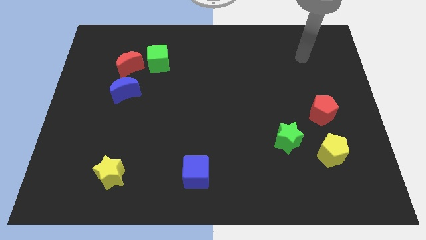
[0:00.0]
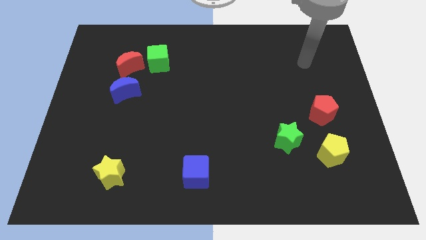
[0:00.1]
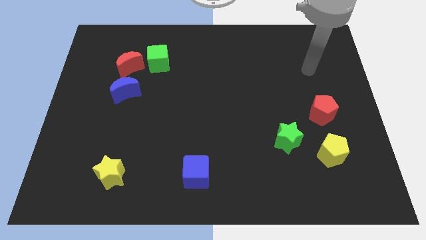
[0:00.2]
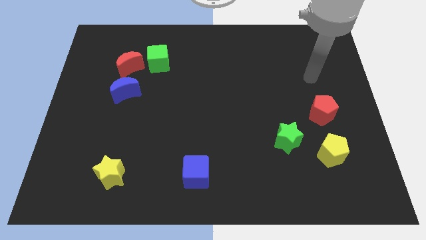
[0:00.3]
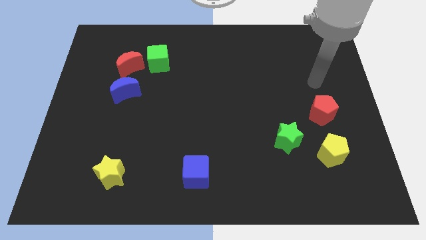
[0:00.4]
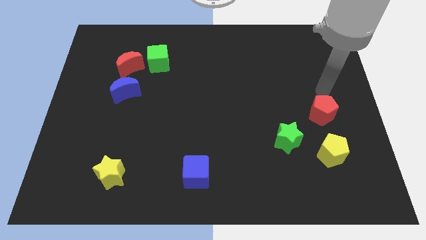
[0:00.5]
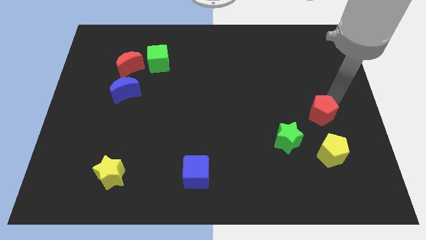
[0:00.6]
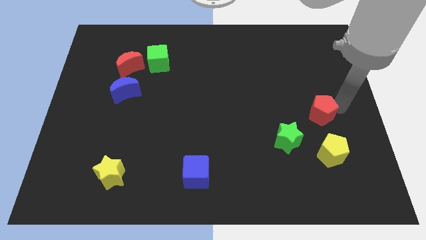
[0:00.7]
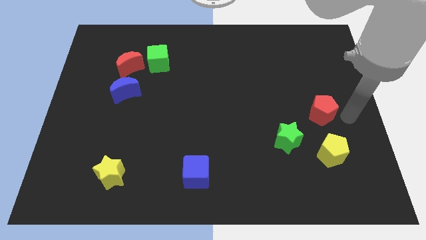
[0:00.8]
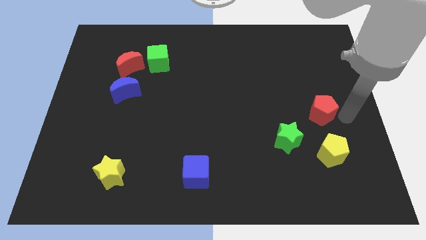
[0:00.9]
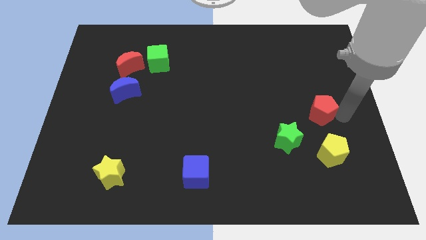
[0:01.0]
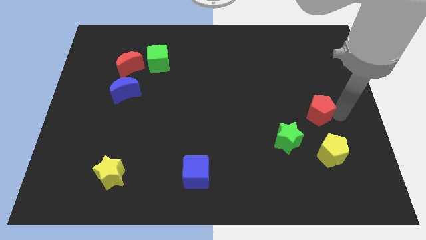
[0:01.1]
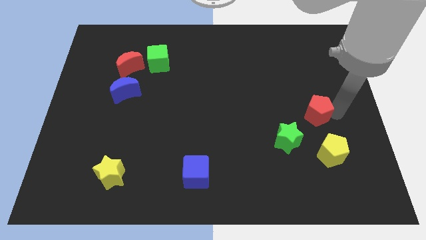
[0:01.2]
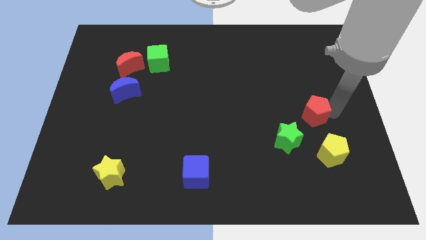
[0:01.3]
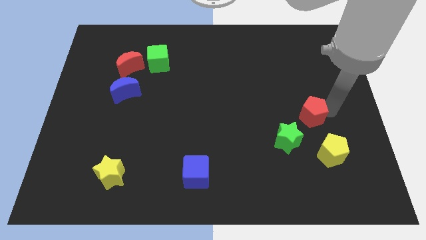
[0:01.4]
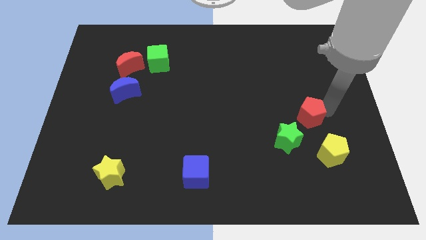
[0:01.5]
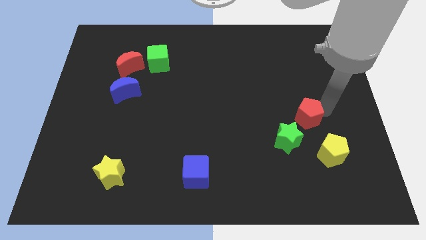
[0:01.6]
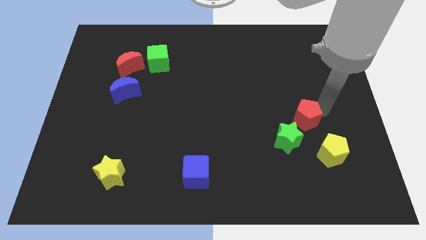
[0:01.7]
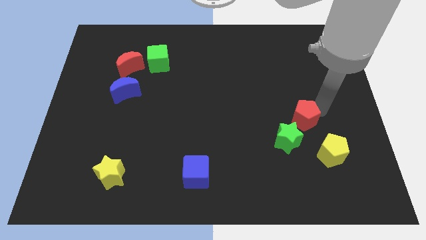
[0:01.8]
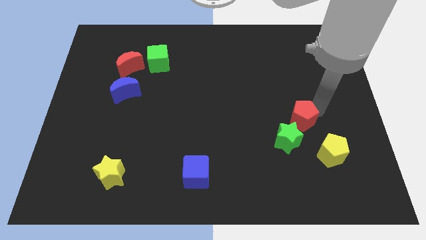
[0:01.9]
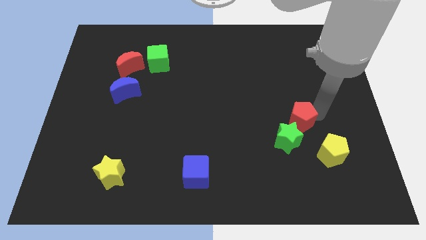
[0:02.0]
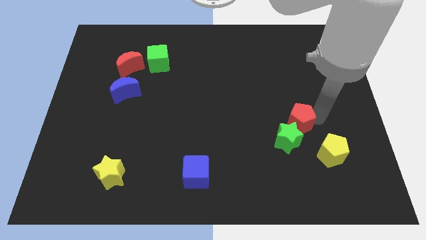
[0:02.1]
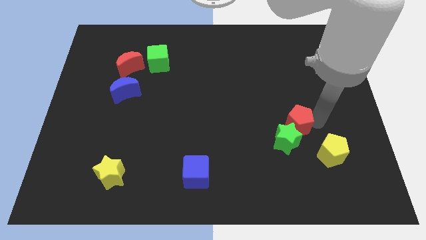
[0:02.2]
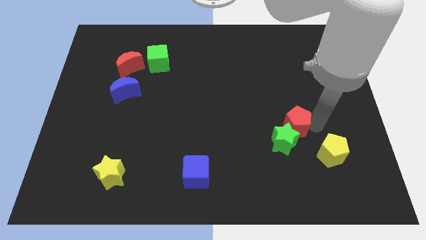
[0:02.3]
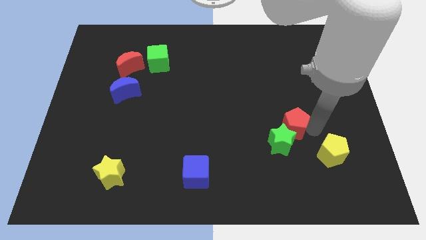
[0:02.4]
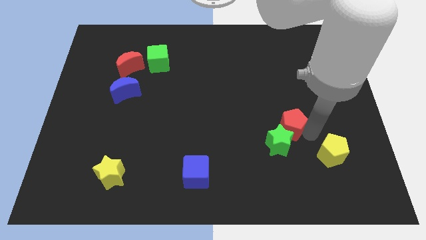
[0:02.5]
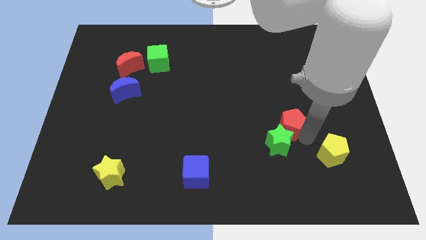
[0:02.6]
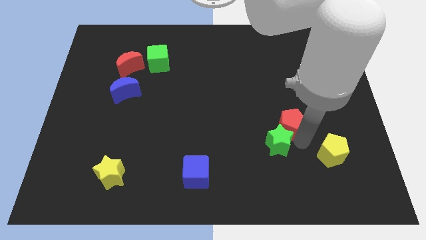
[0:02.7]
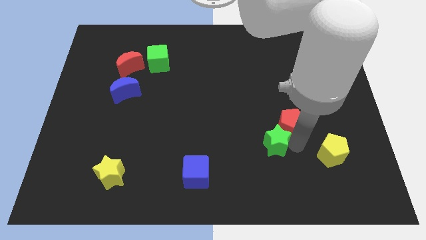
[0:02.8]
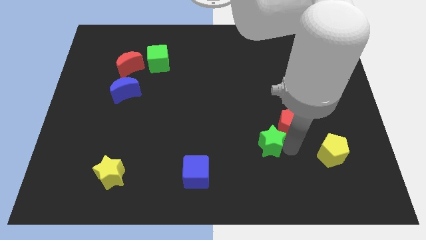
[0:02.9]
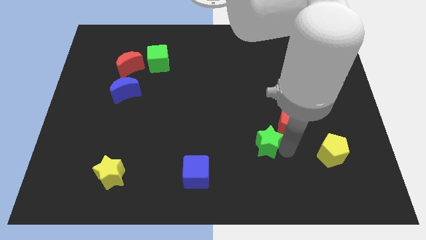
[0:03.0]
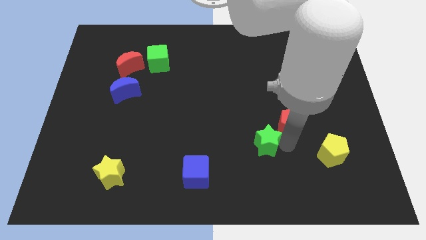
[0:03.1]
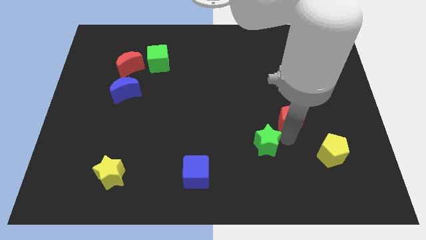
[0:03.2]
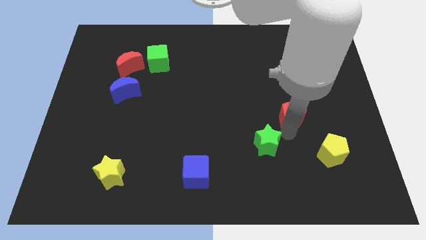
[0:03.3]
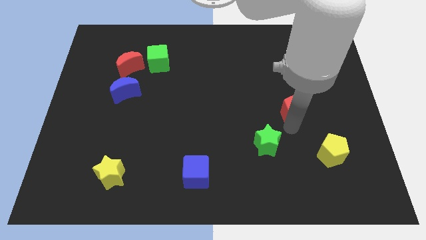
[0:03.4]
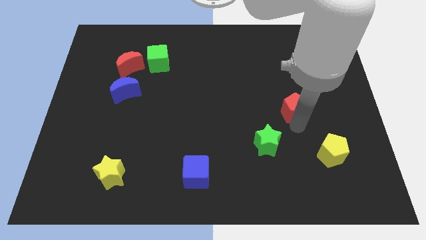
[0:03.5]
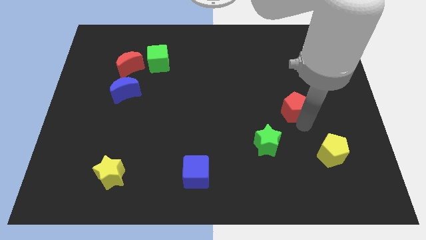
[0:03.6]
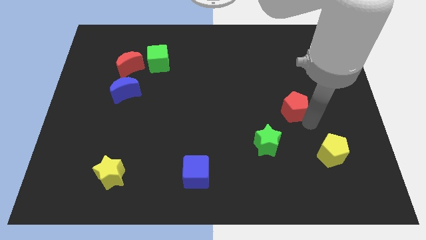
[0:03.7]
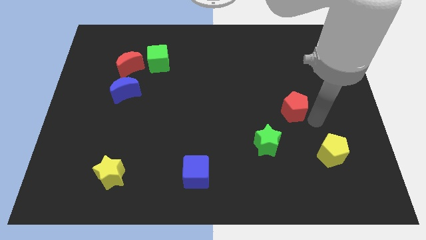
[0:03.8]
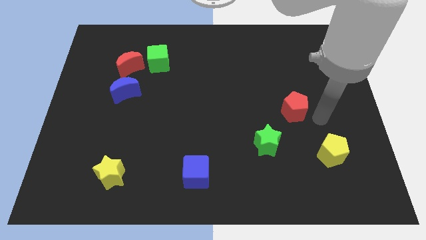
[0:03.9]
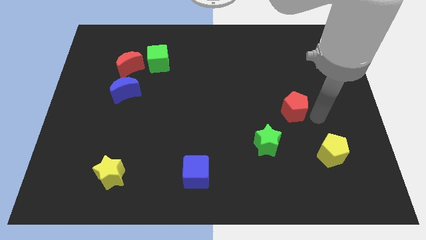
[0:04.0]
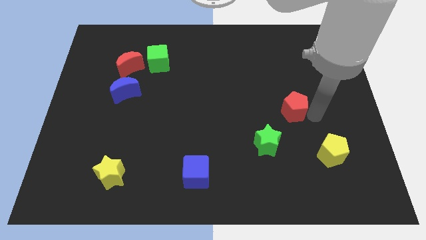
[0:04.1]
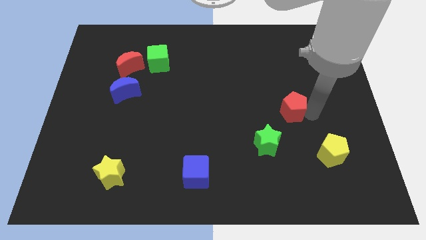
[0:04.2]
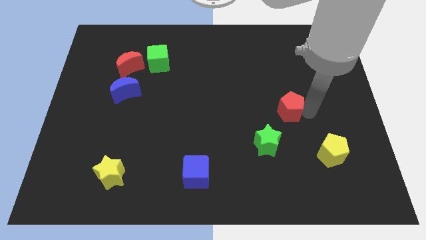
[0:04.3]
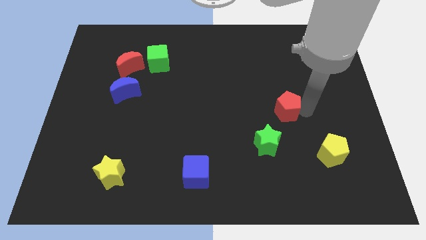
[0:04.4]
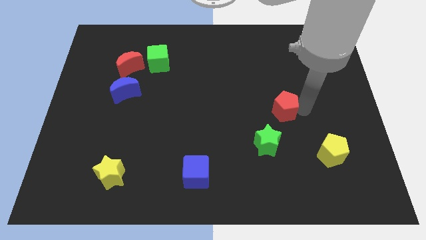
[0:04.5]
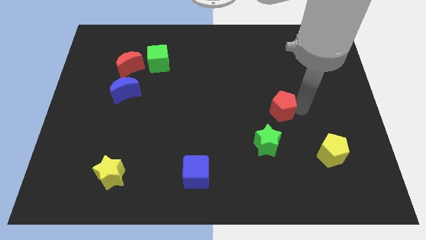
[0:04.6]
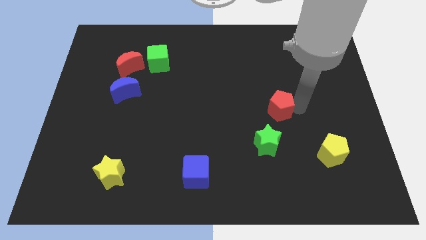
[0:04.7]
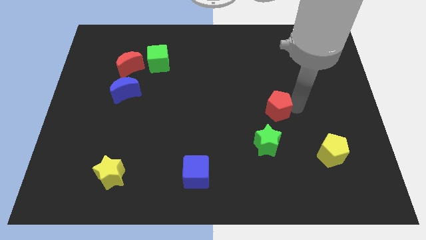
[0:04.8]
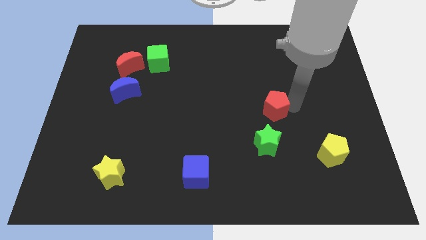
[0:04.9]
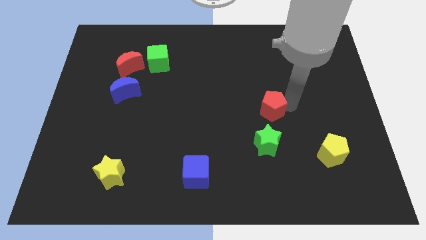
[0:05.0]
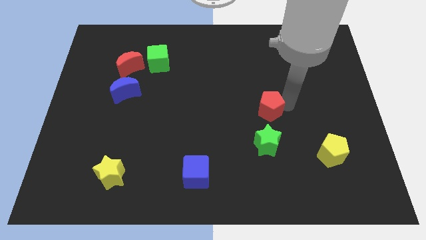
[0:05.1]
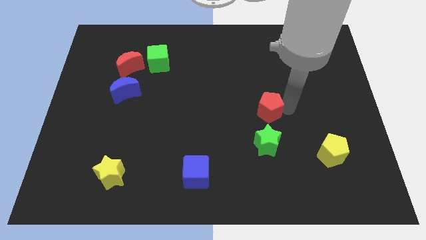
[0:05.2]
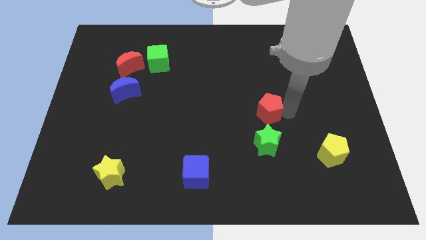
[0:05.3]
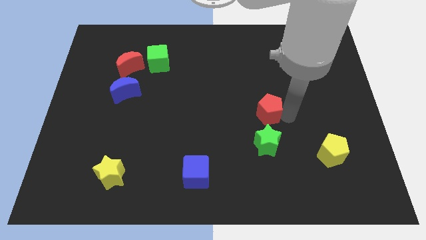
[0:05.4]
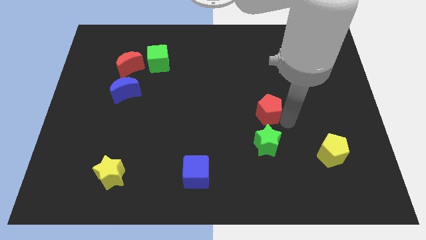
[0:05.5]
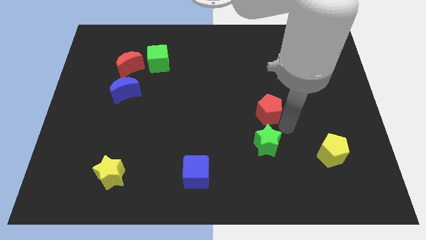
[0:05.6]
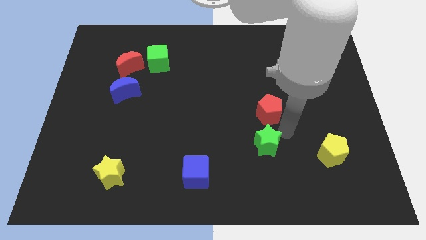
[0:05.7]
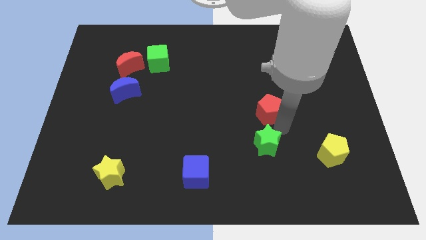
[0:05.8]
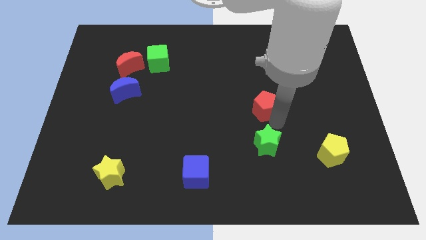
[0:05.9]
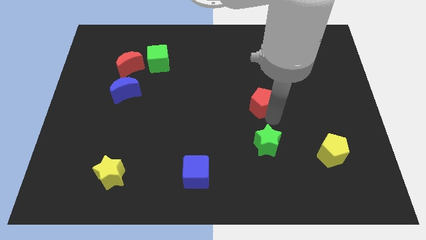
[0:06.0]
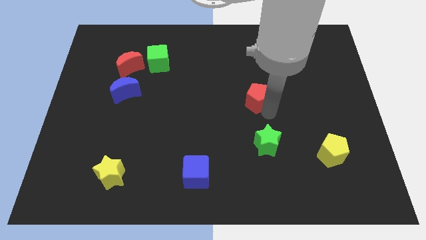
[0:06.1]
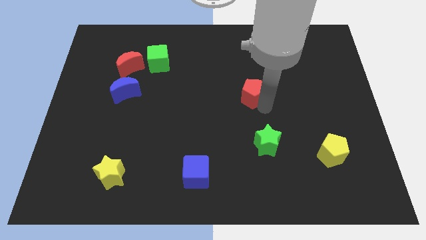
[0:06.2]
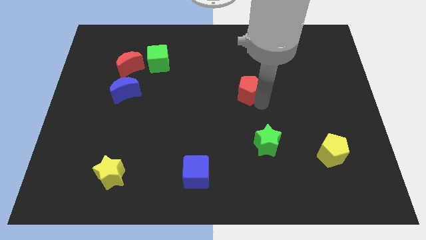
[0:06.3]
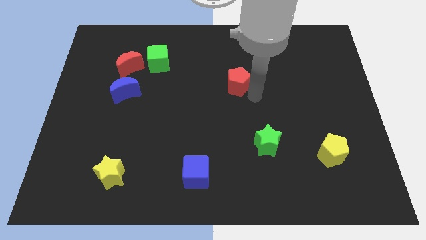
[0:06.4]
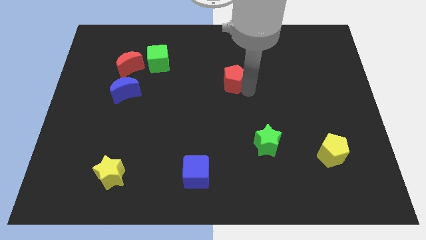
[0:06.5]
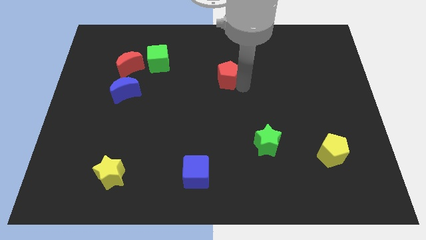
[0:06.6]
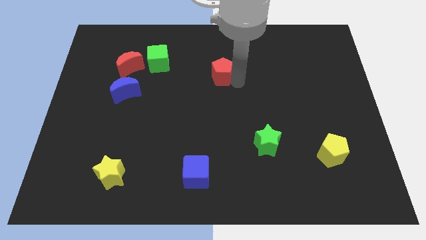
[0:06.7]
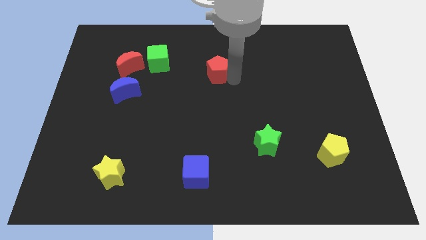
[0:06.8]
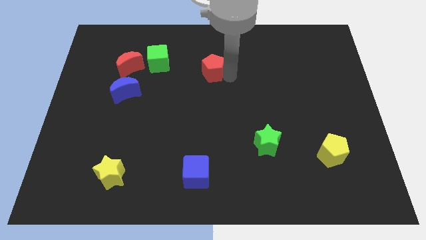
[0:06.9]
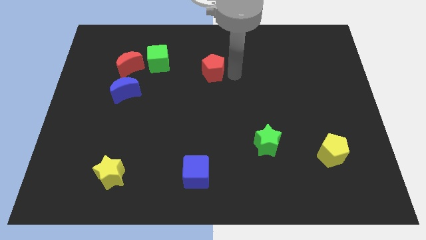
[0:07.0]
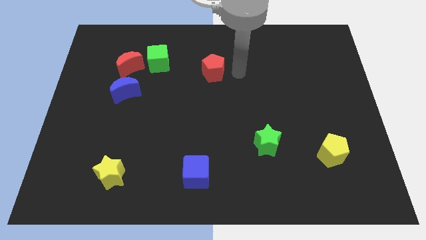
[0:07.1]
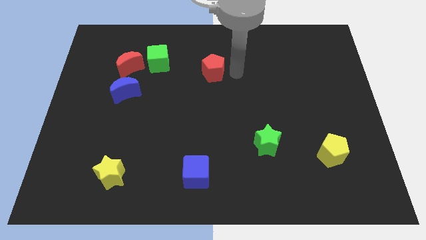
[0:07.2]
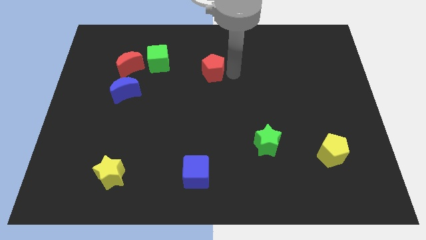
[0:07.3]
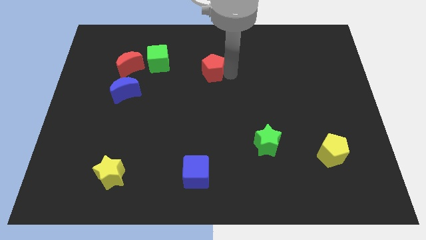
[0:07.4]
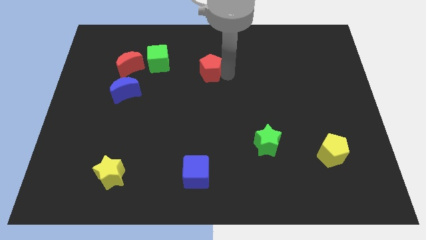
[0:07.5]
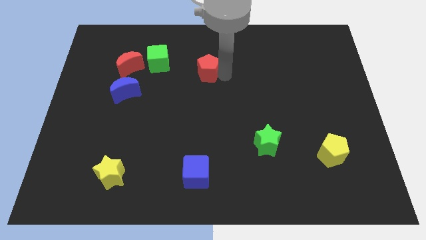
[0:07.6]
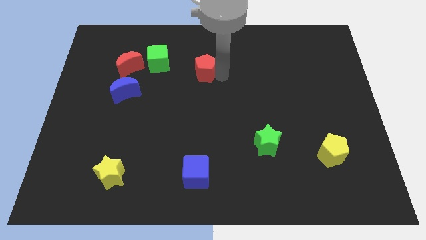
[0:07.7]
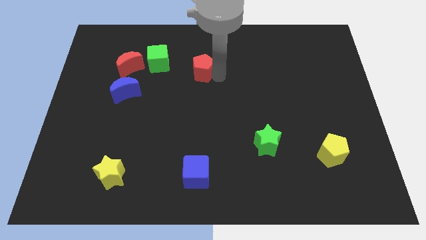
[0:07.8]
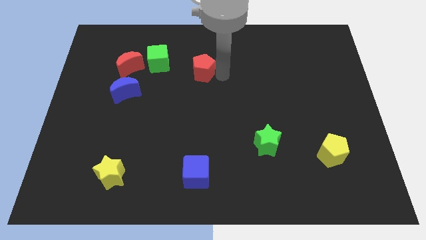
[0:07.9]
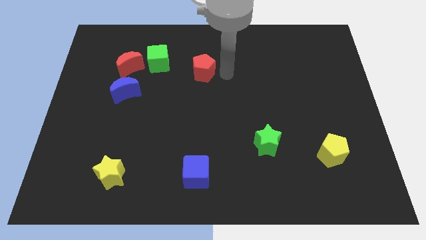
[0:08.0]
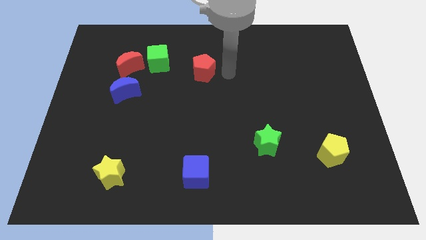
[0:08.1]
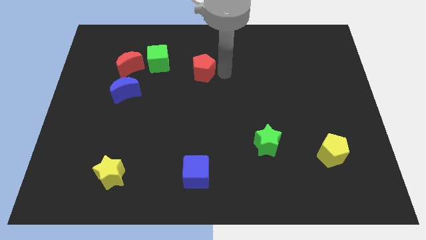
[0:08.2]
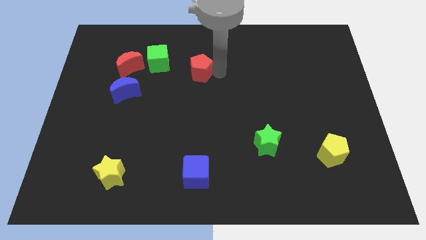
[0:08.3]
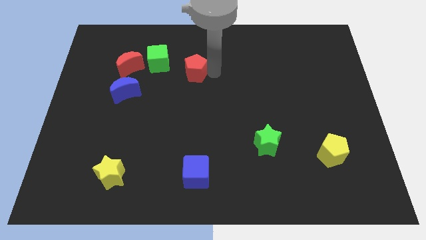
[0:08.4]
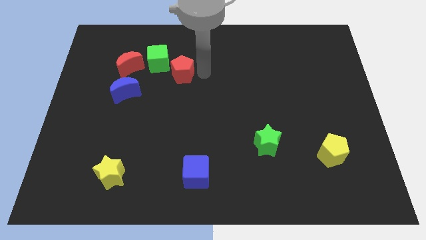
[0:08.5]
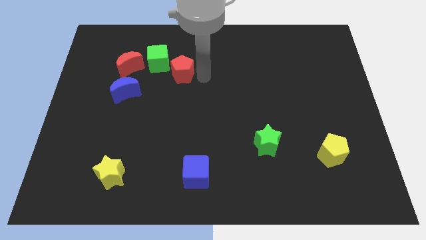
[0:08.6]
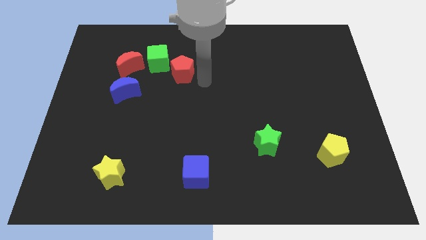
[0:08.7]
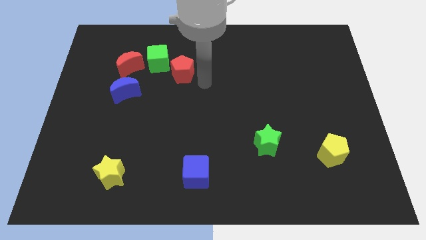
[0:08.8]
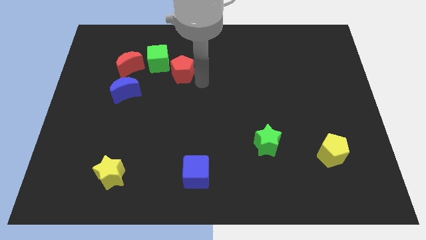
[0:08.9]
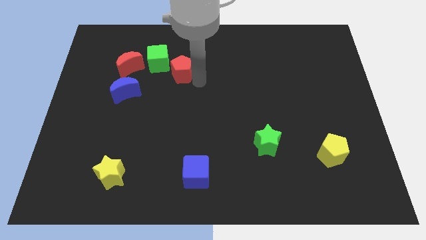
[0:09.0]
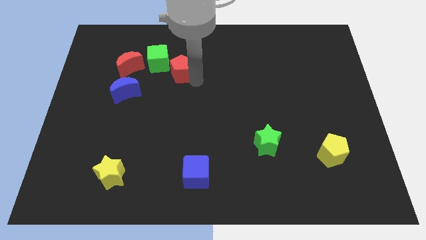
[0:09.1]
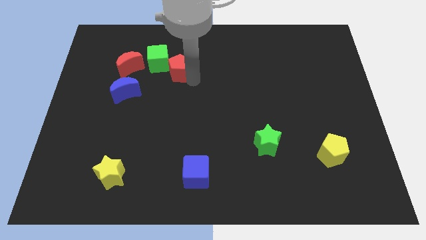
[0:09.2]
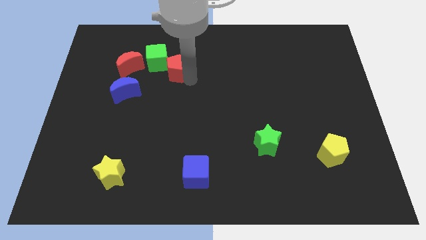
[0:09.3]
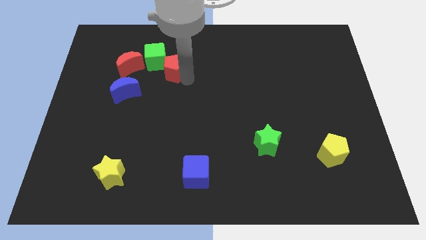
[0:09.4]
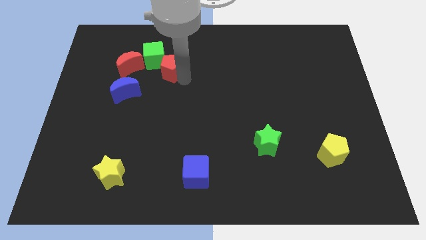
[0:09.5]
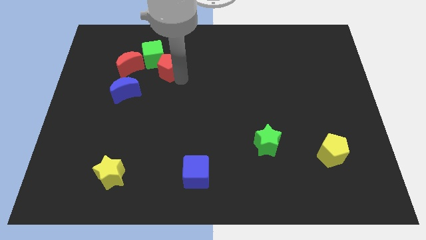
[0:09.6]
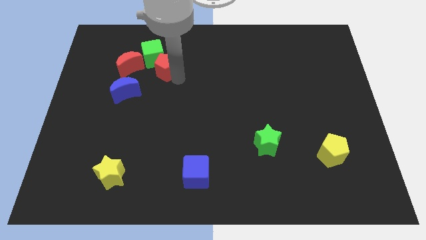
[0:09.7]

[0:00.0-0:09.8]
put the red pentagon to the green cube
